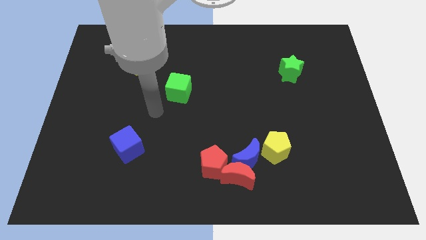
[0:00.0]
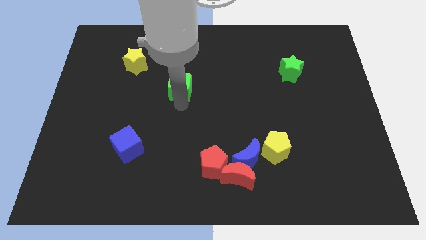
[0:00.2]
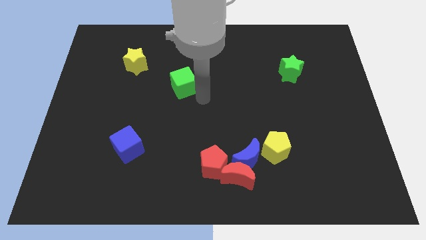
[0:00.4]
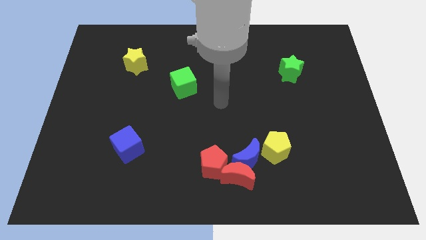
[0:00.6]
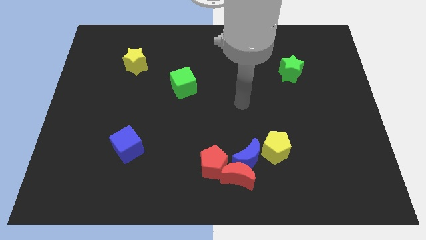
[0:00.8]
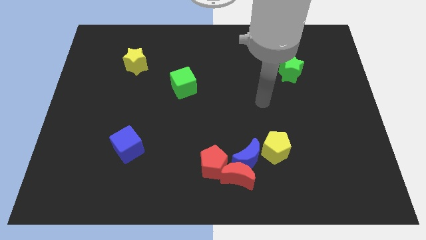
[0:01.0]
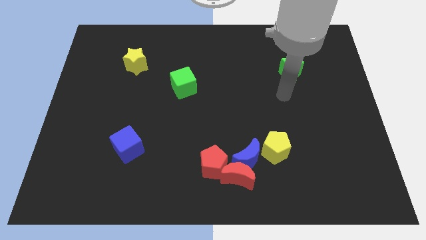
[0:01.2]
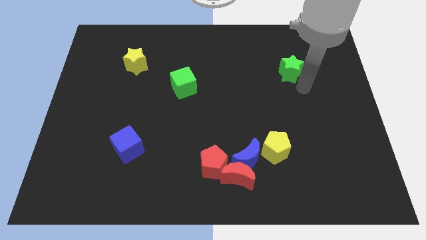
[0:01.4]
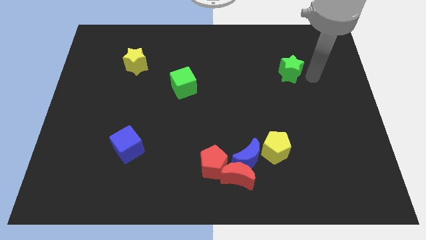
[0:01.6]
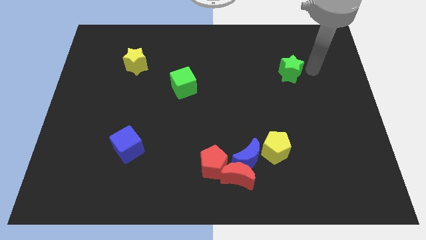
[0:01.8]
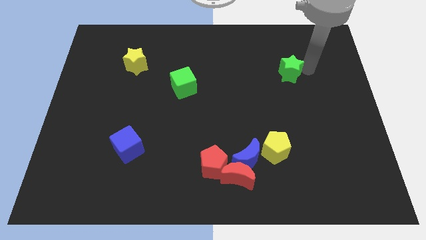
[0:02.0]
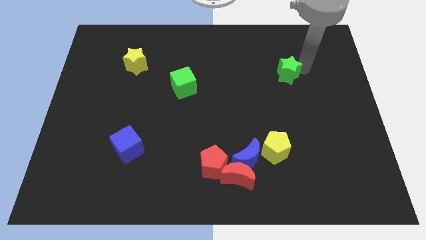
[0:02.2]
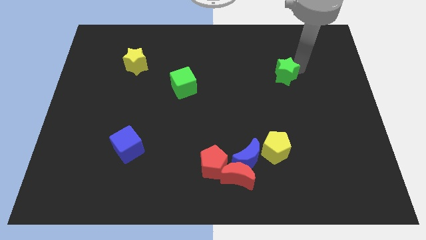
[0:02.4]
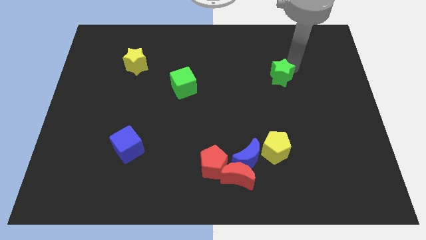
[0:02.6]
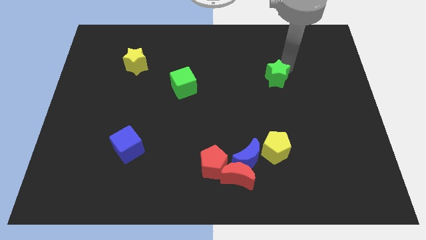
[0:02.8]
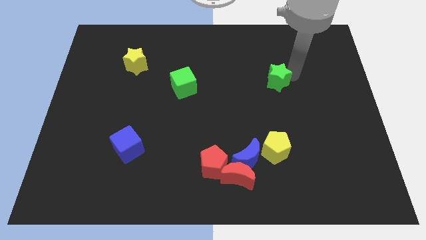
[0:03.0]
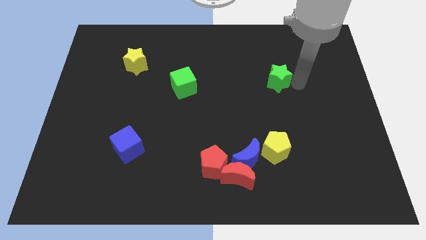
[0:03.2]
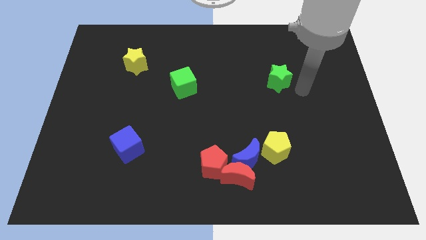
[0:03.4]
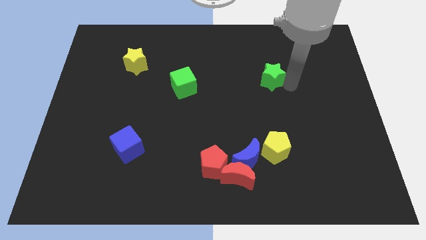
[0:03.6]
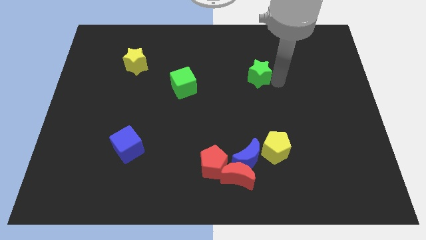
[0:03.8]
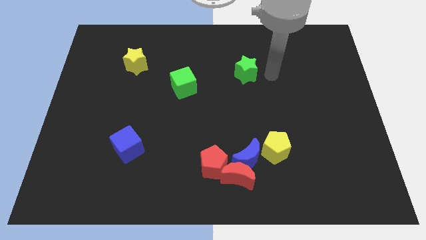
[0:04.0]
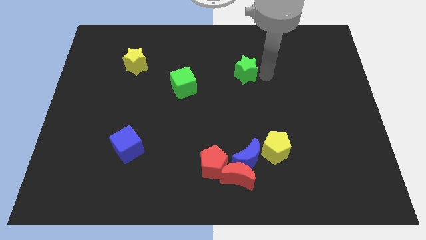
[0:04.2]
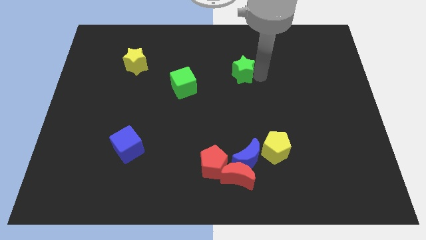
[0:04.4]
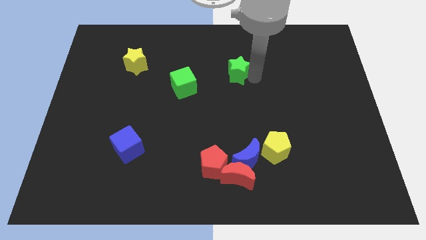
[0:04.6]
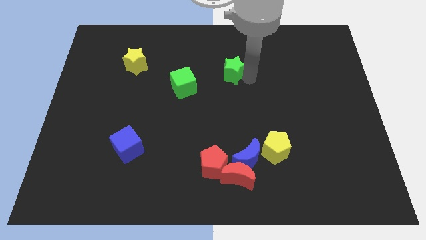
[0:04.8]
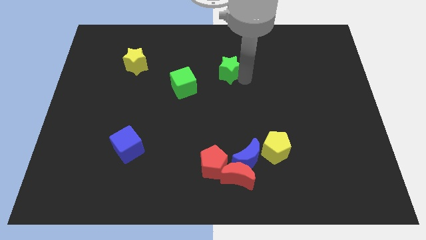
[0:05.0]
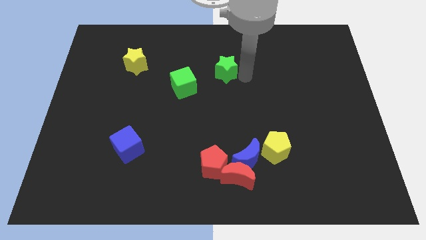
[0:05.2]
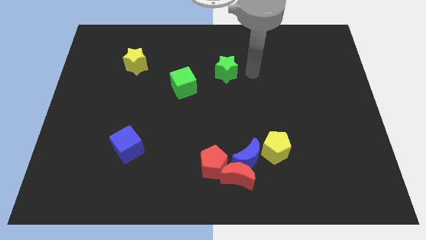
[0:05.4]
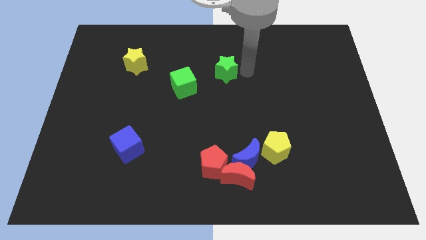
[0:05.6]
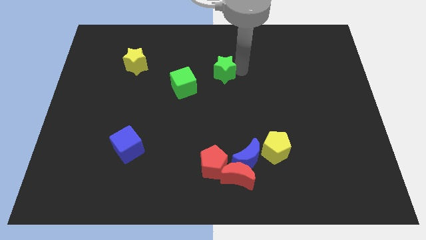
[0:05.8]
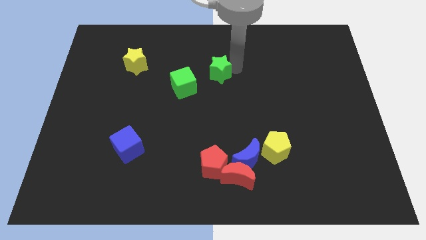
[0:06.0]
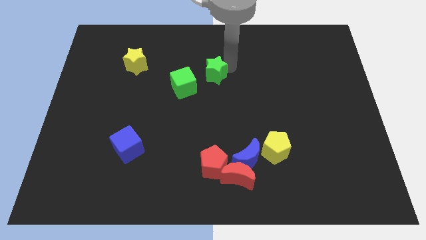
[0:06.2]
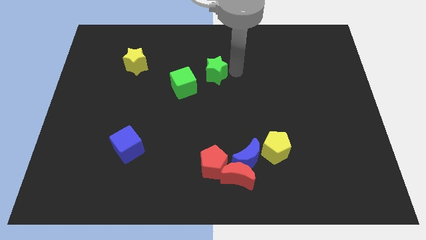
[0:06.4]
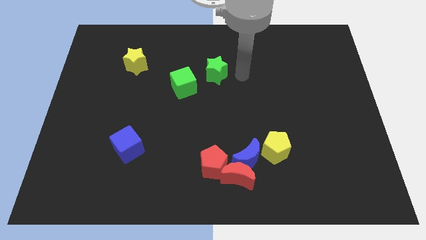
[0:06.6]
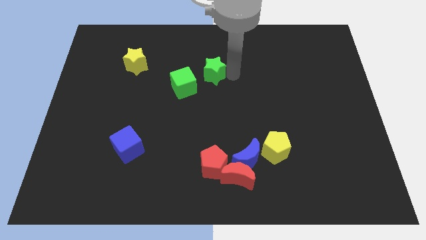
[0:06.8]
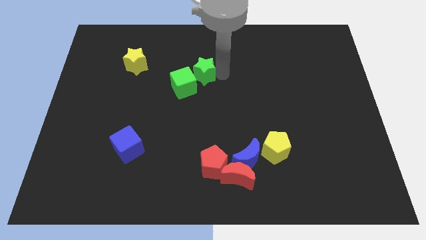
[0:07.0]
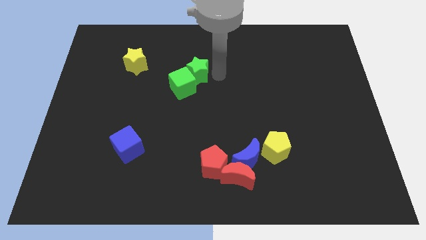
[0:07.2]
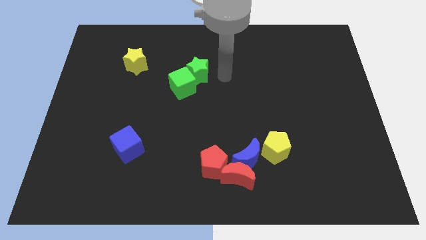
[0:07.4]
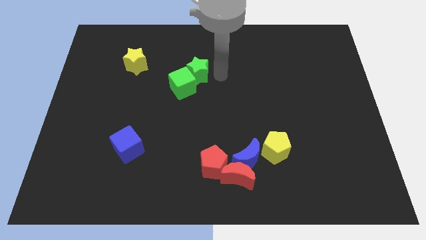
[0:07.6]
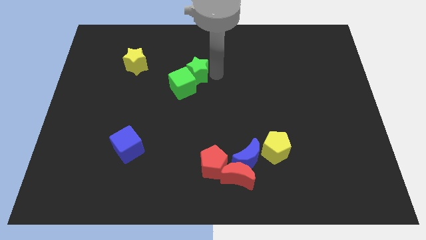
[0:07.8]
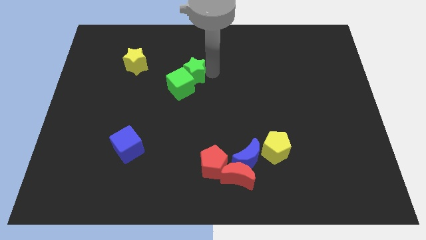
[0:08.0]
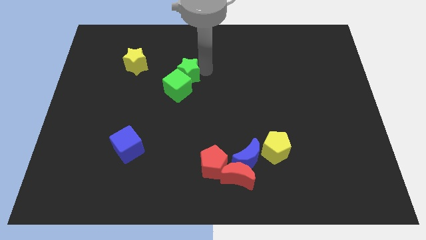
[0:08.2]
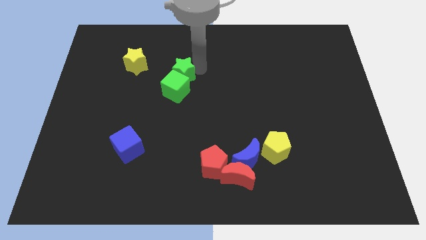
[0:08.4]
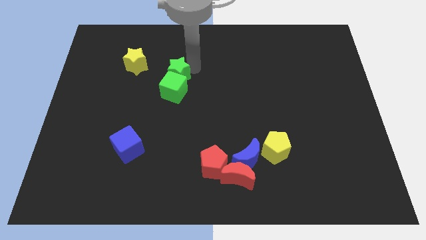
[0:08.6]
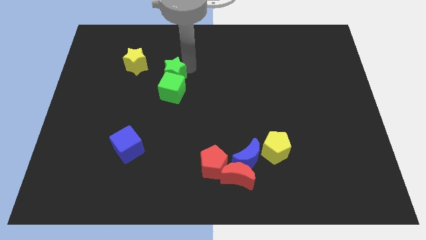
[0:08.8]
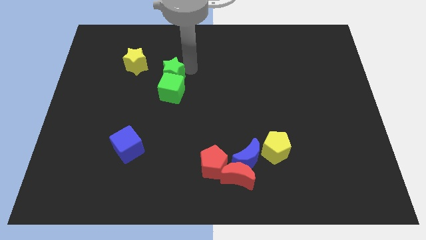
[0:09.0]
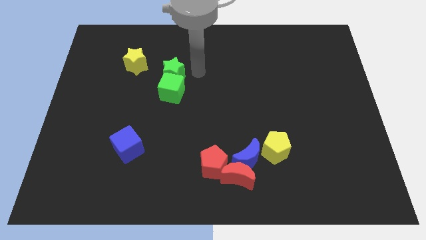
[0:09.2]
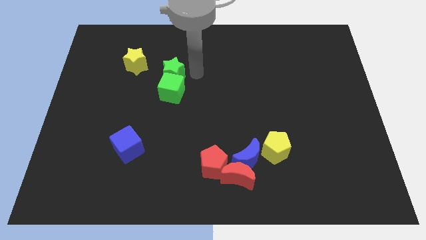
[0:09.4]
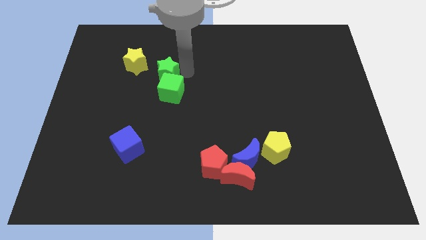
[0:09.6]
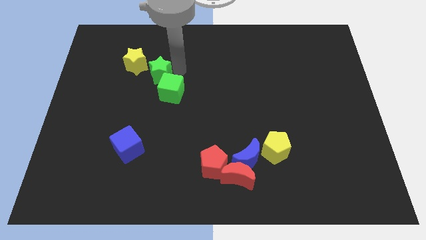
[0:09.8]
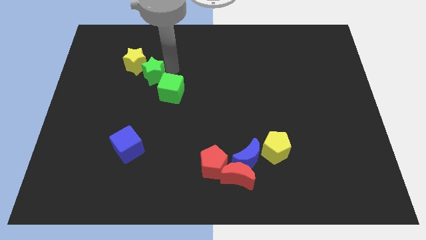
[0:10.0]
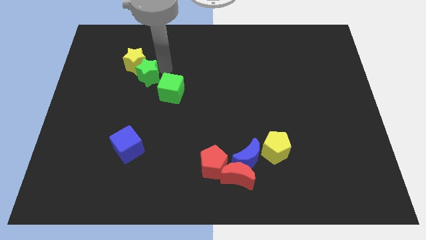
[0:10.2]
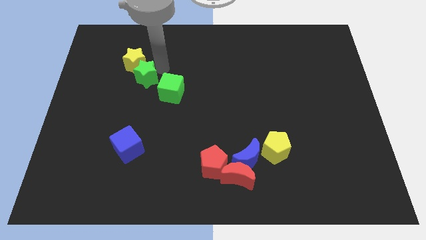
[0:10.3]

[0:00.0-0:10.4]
push the green star to the left of the green cube

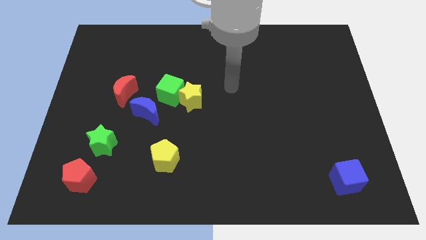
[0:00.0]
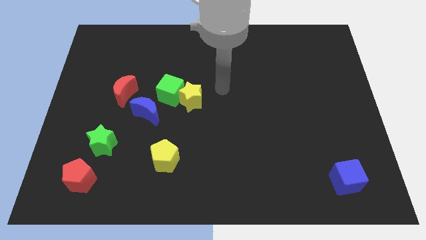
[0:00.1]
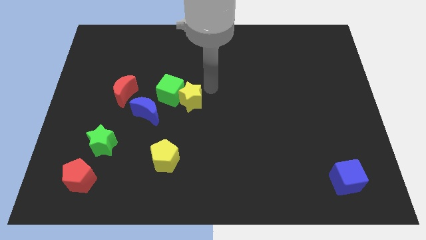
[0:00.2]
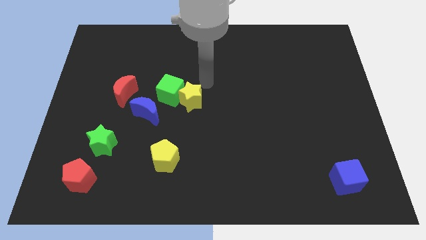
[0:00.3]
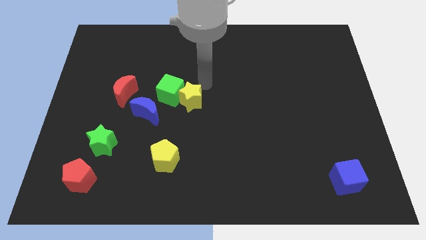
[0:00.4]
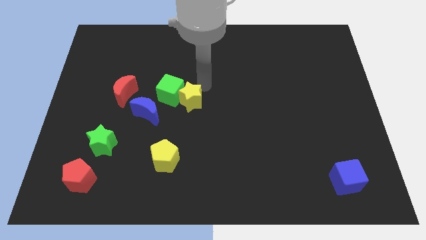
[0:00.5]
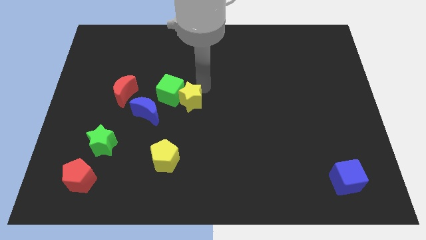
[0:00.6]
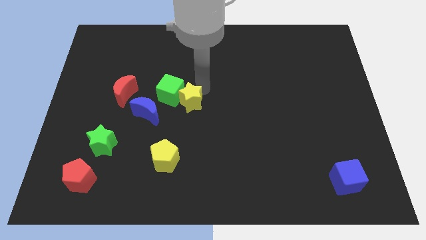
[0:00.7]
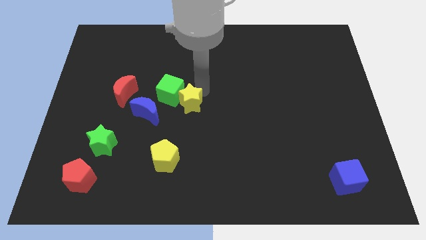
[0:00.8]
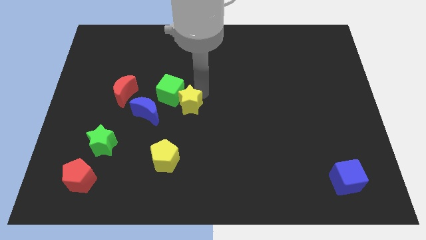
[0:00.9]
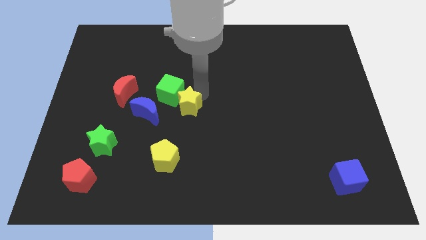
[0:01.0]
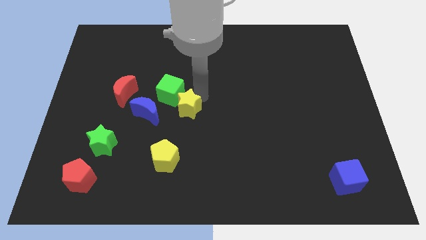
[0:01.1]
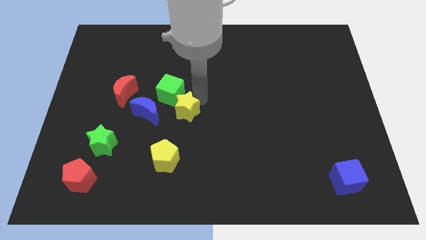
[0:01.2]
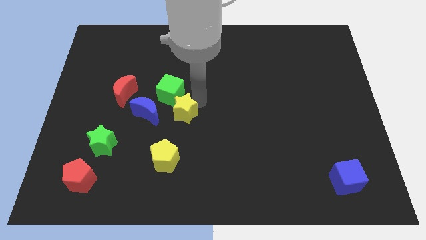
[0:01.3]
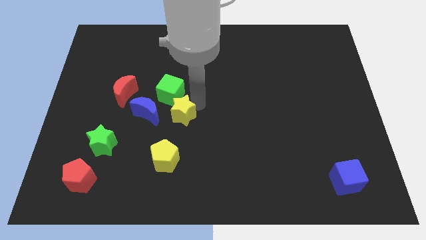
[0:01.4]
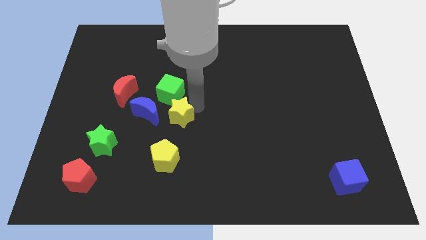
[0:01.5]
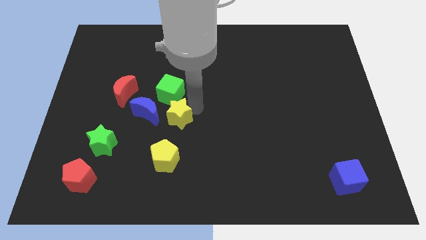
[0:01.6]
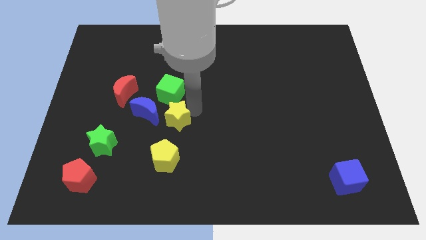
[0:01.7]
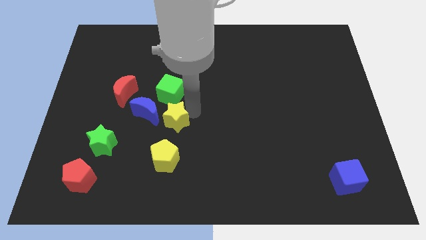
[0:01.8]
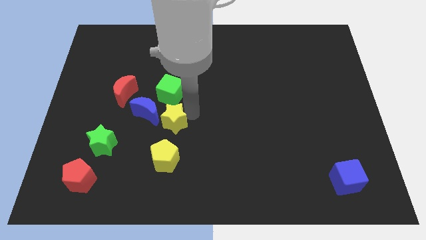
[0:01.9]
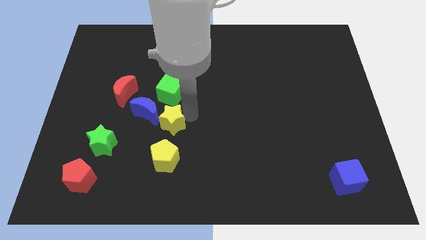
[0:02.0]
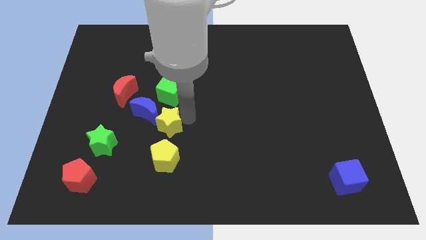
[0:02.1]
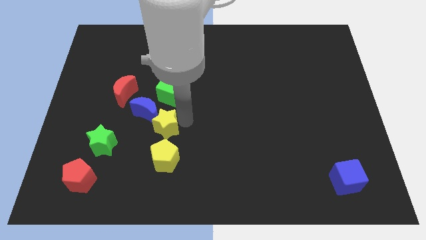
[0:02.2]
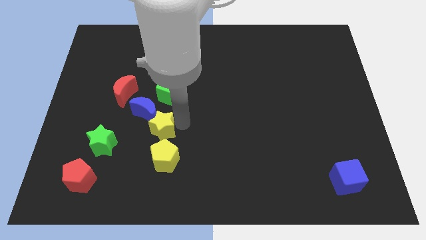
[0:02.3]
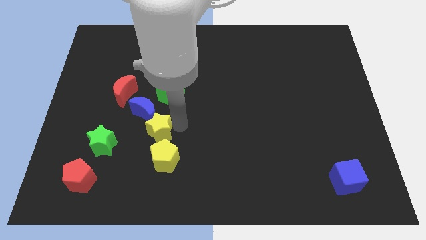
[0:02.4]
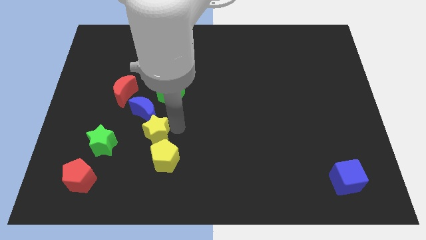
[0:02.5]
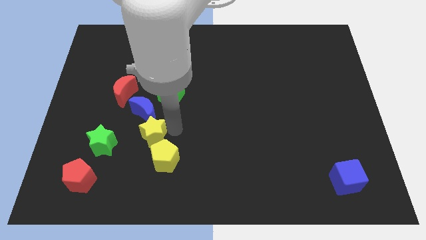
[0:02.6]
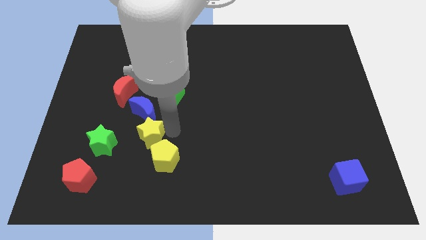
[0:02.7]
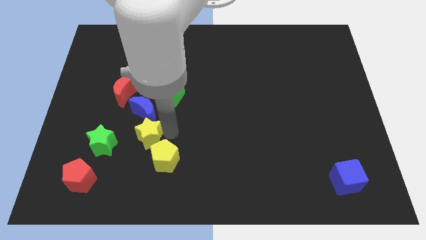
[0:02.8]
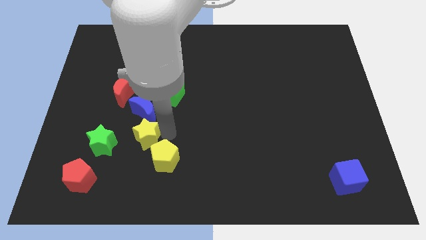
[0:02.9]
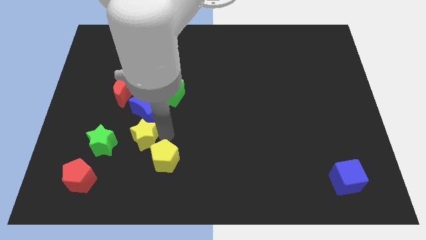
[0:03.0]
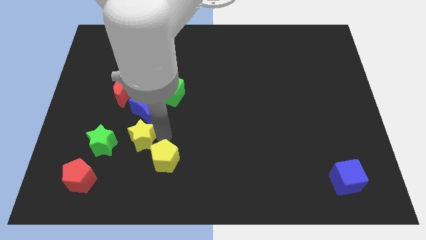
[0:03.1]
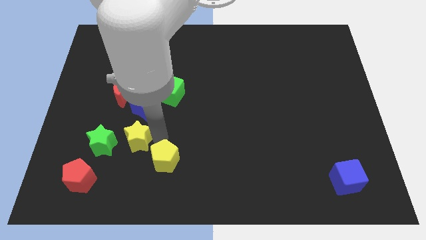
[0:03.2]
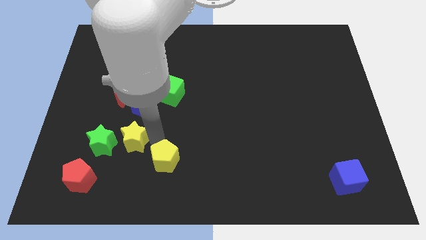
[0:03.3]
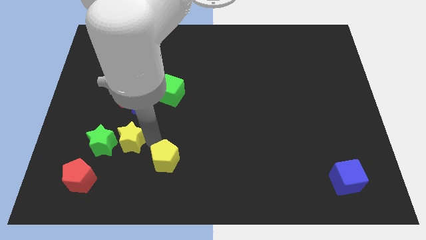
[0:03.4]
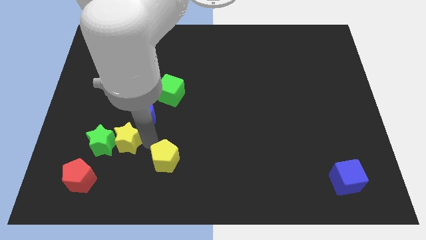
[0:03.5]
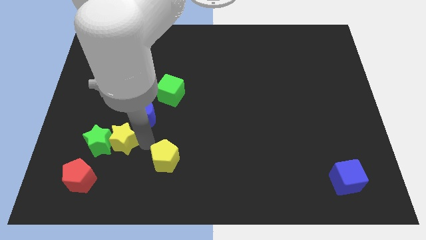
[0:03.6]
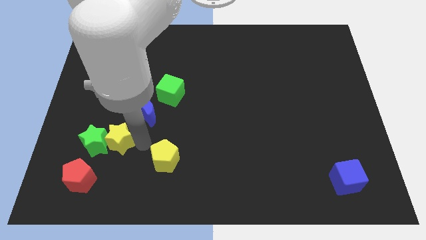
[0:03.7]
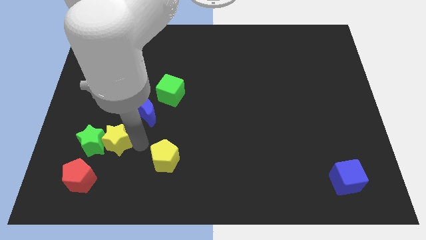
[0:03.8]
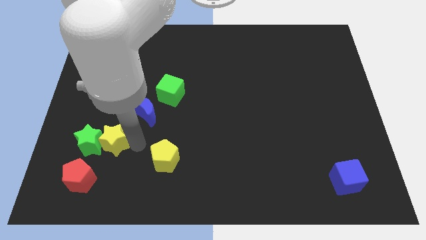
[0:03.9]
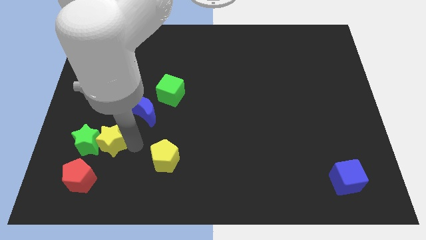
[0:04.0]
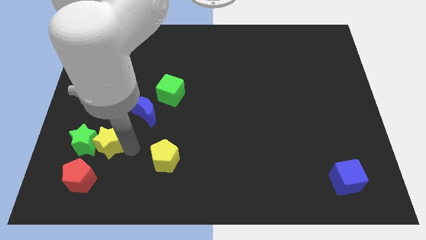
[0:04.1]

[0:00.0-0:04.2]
put the yellow star above the red pentagon
